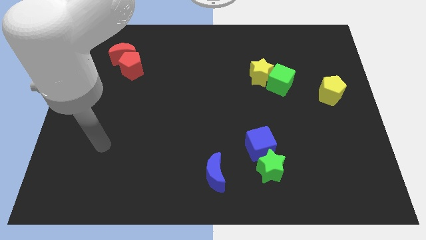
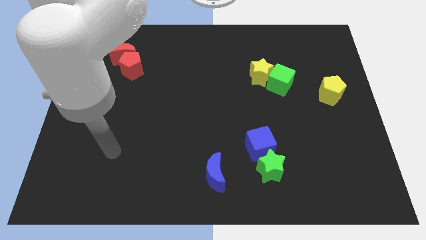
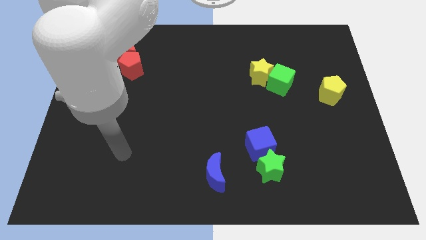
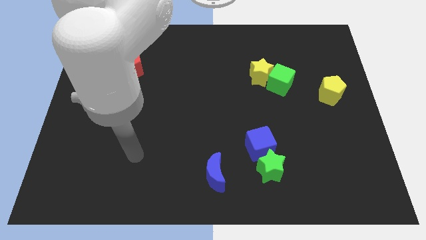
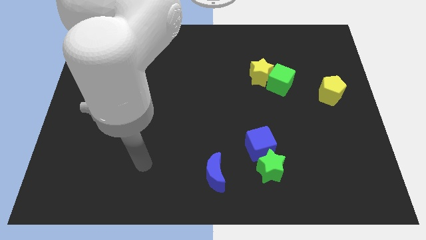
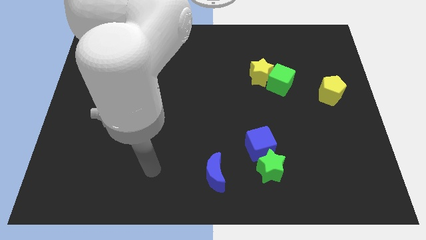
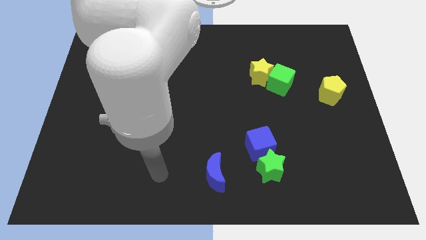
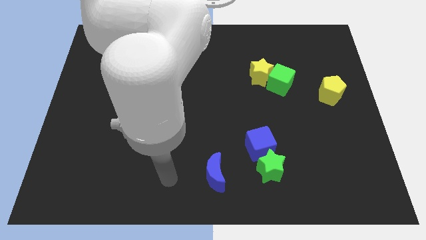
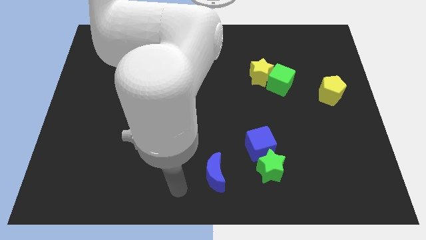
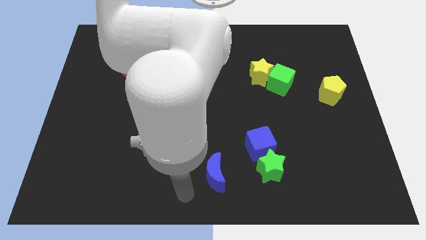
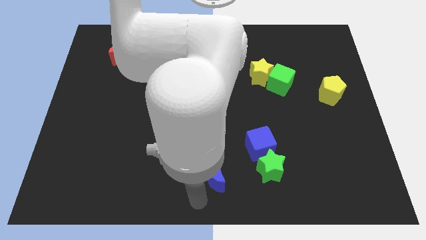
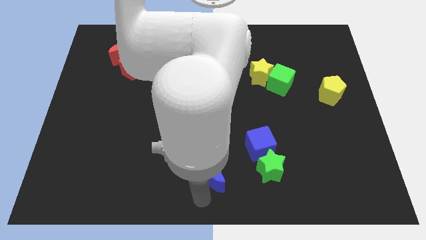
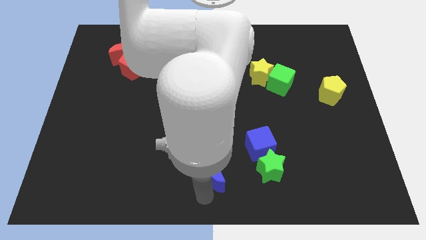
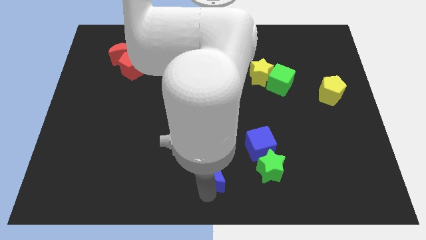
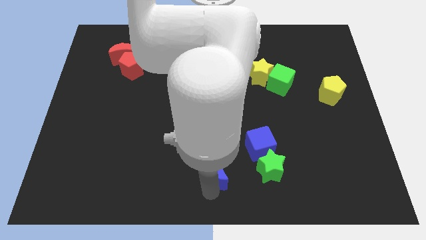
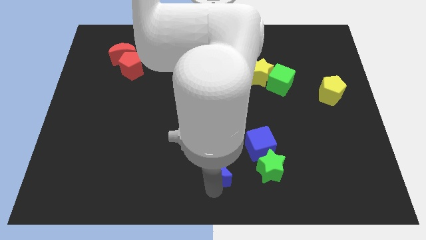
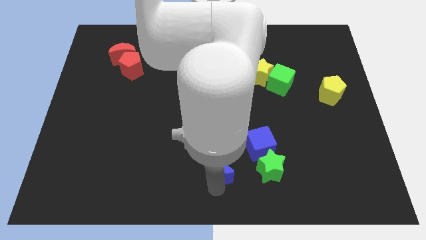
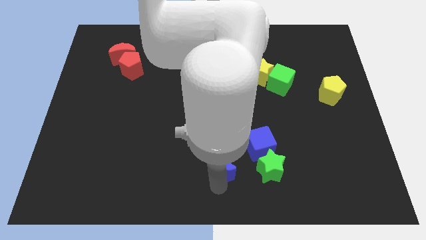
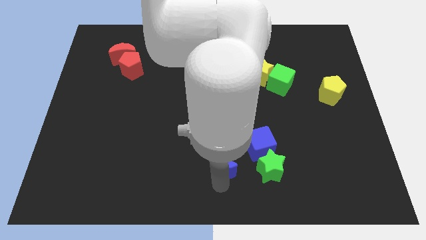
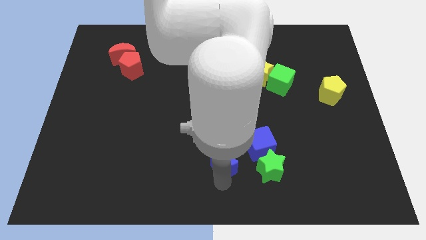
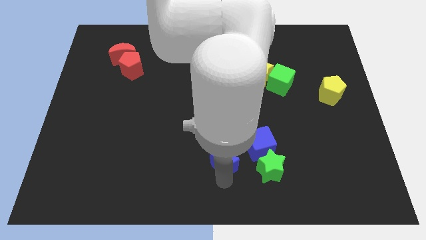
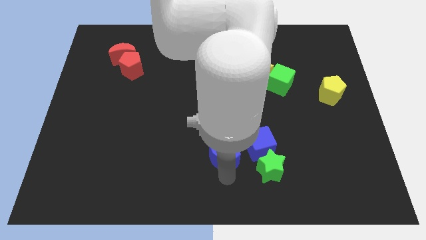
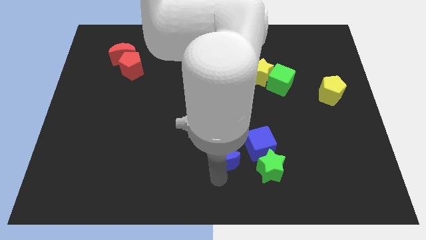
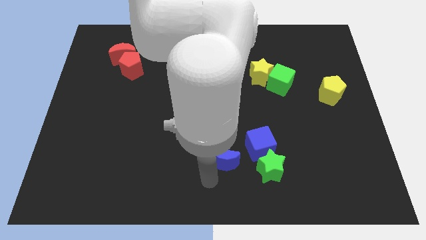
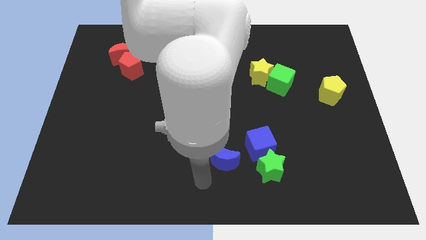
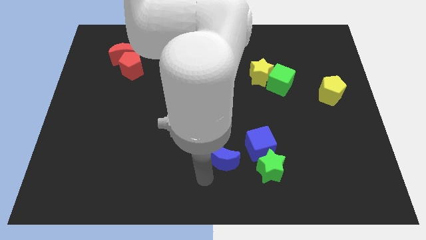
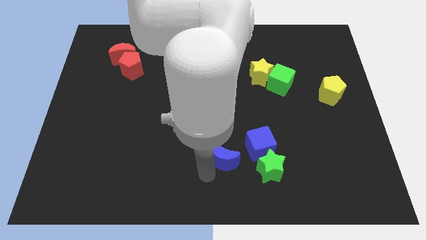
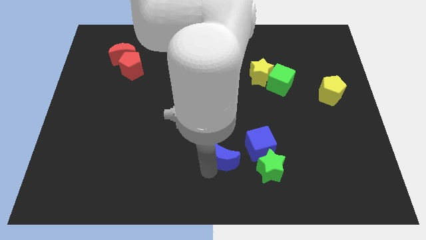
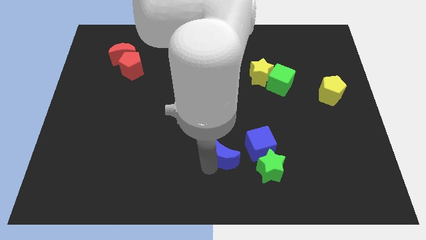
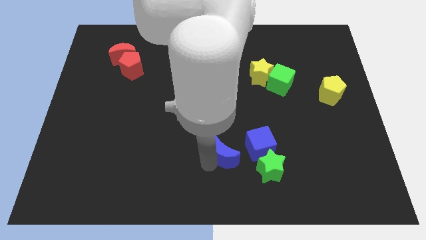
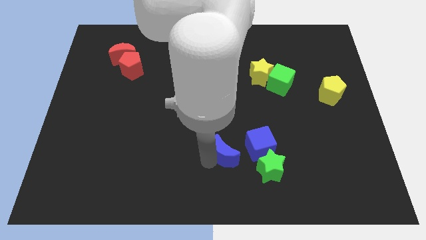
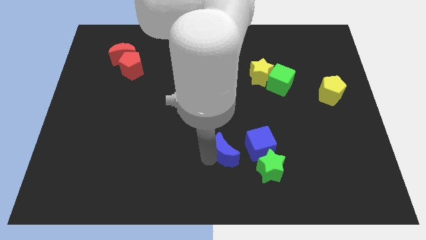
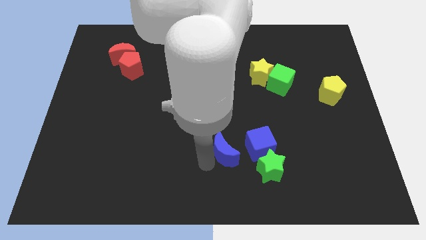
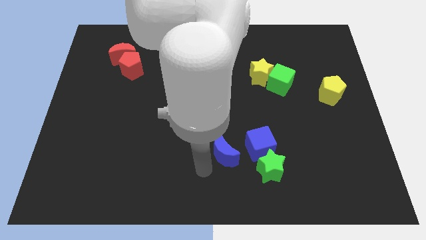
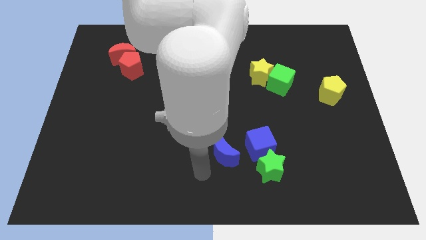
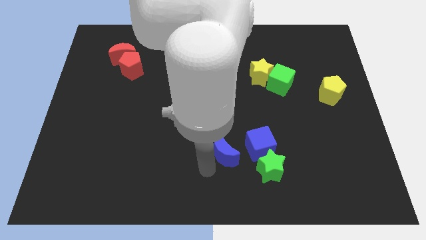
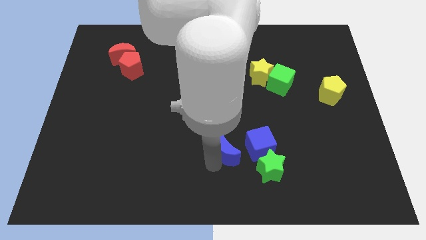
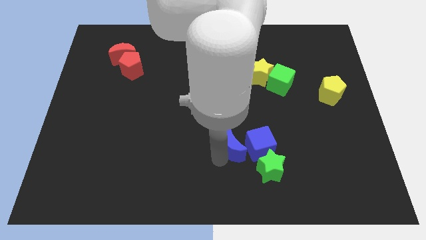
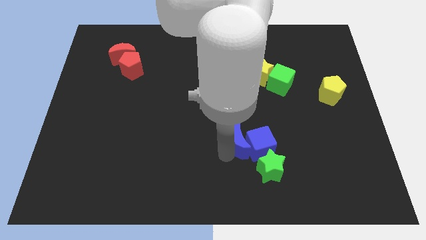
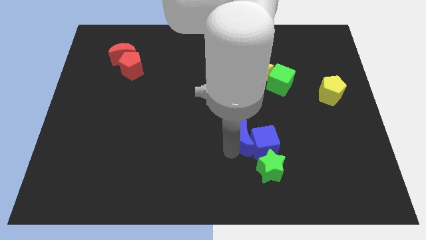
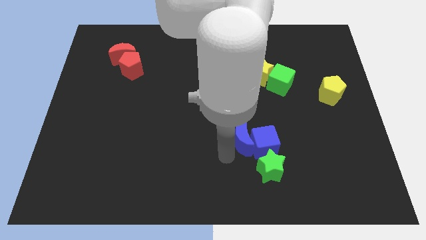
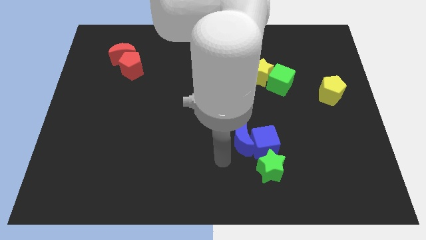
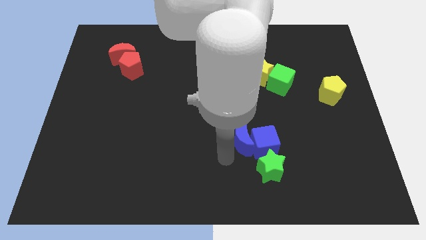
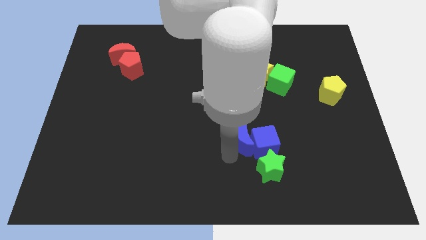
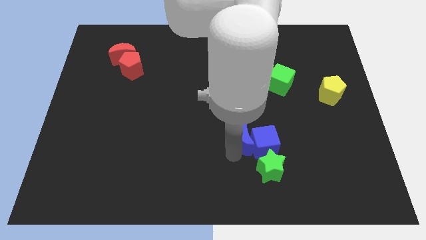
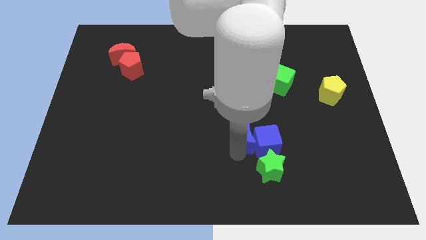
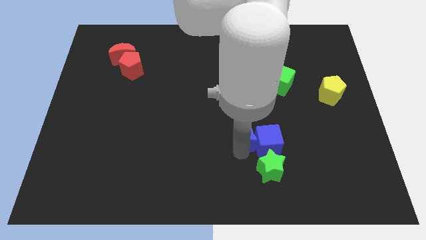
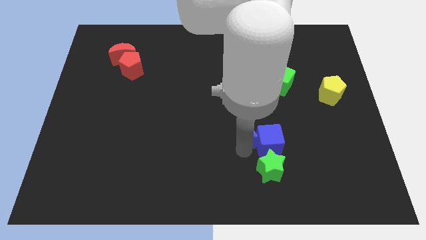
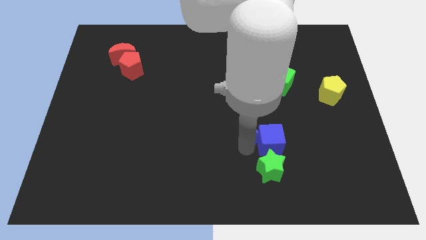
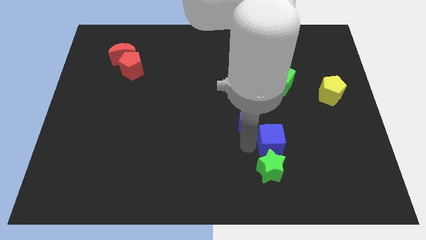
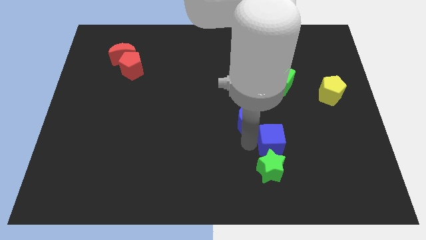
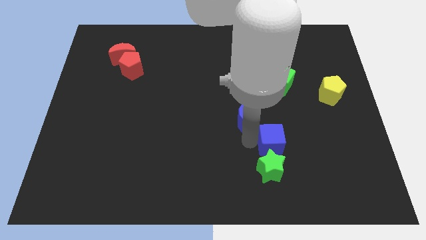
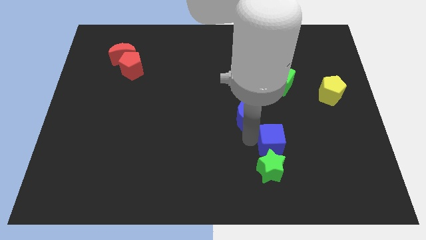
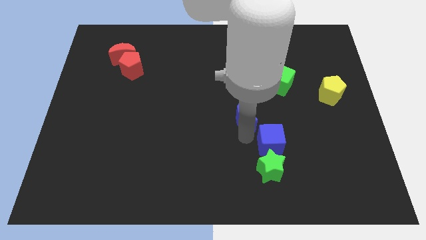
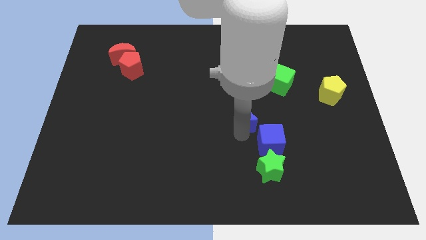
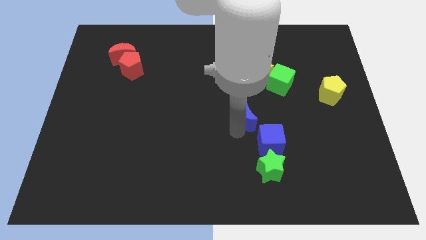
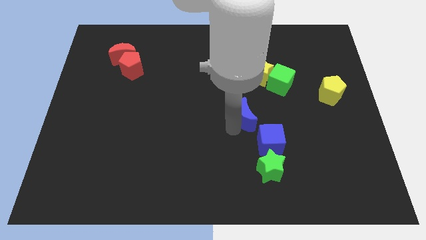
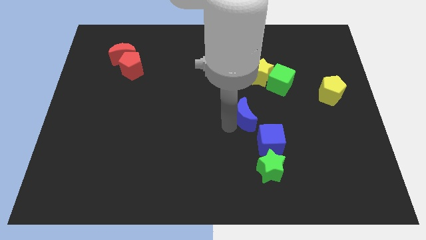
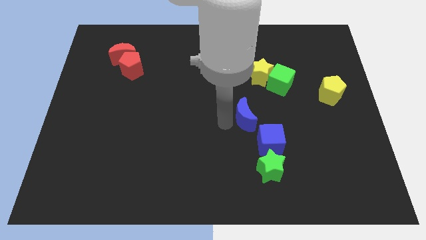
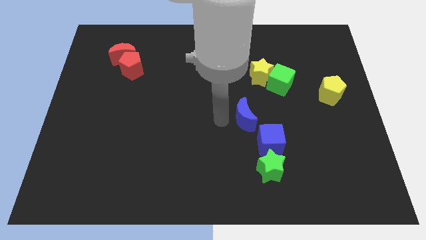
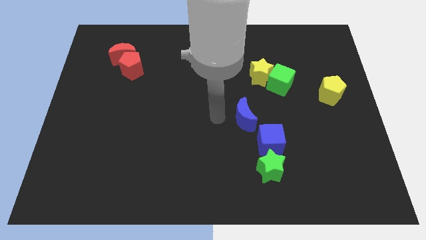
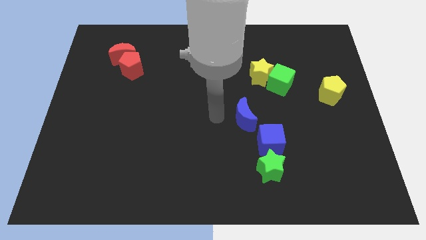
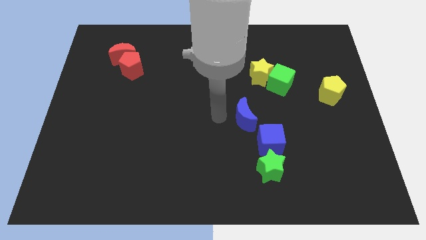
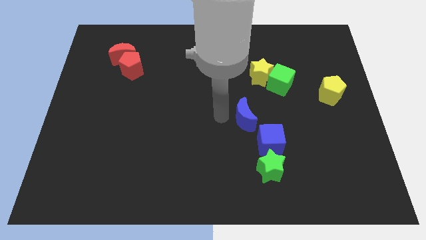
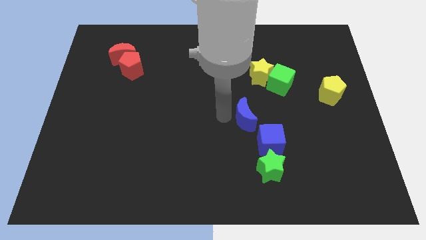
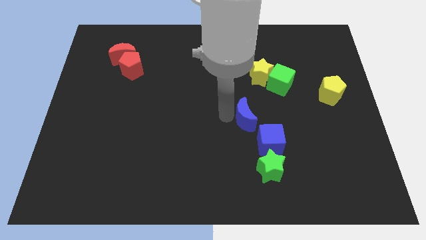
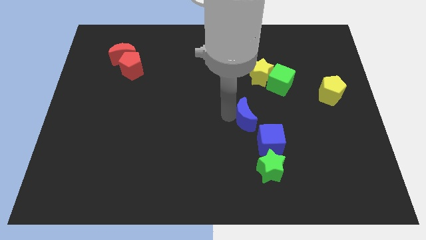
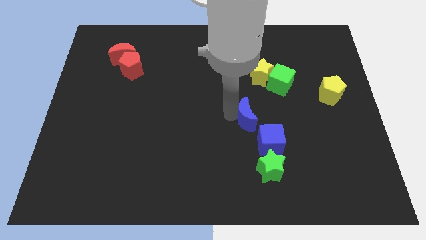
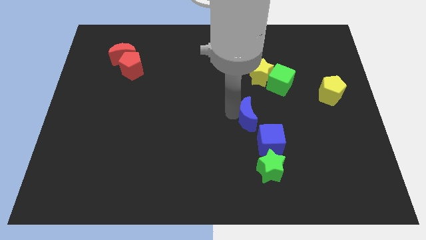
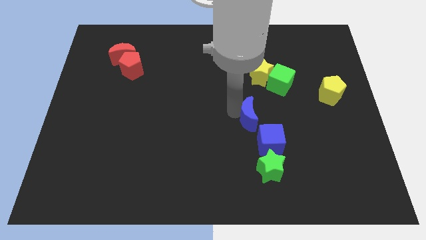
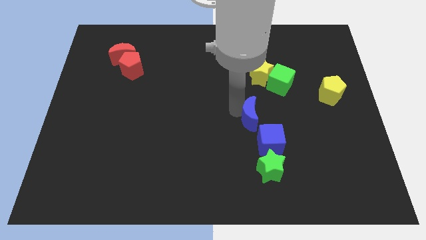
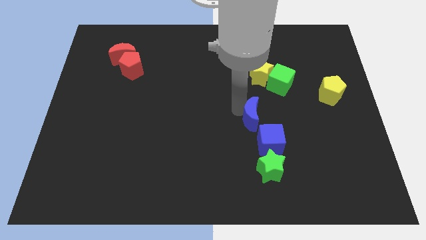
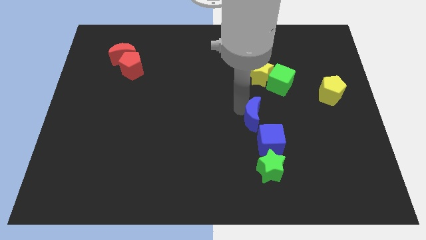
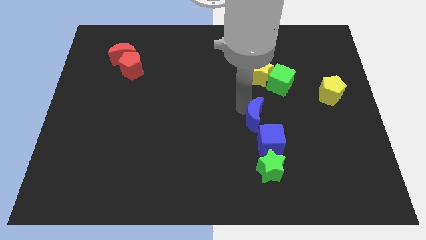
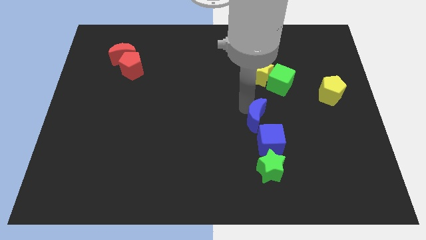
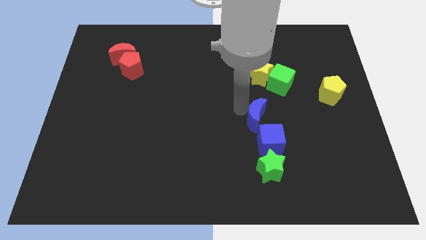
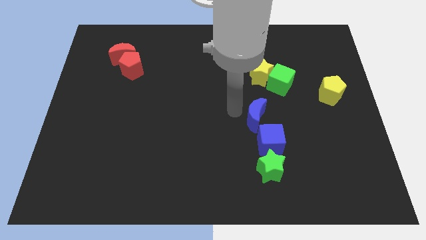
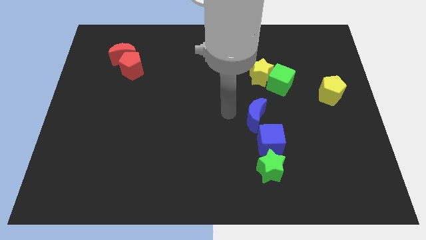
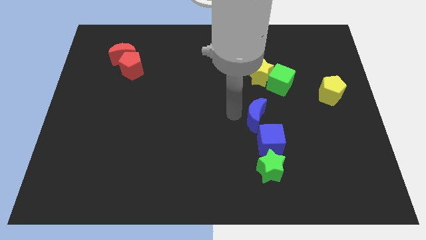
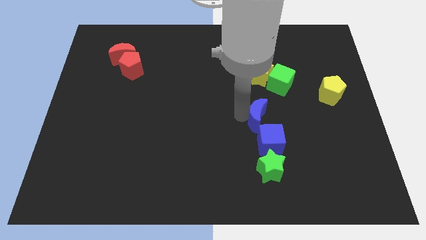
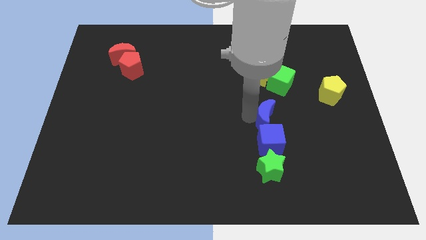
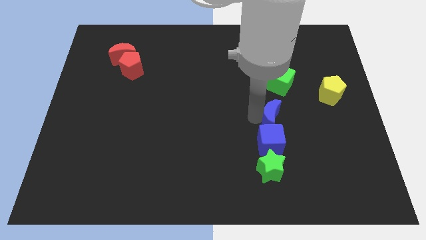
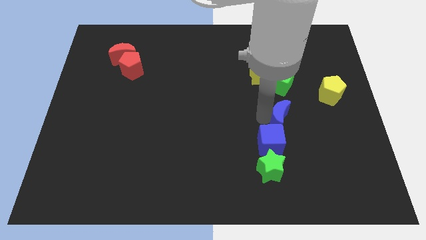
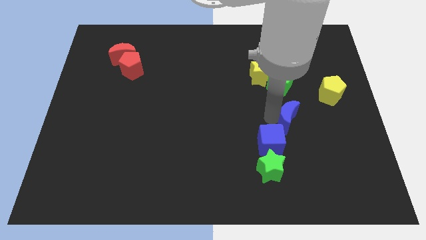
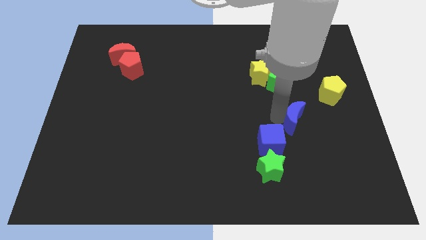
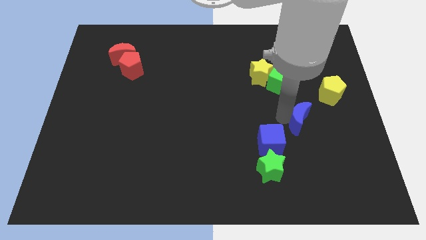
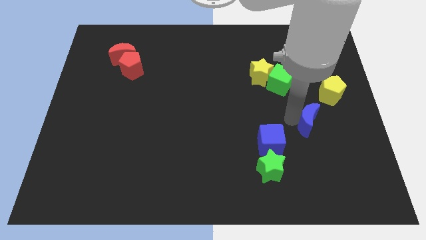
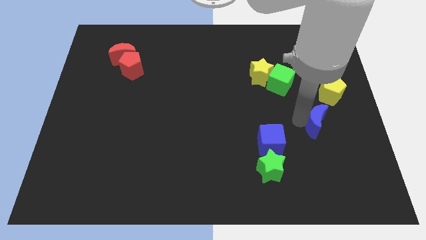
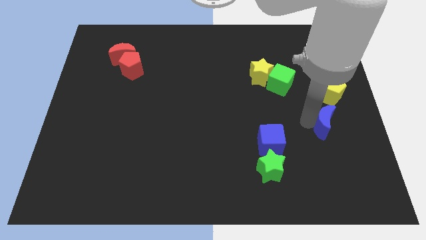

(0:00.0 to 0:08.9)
put the blue moon to the bottom of the yellow pentagon
